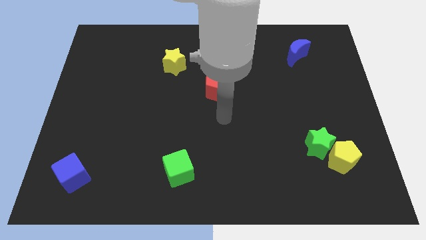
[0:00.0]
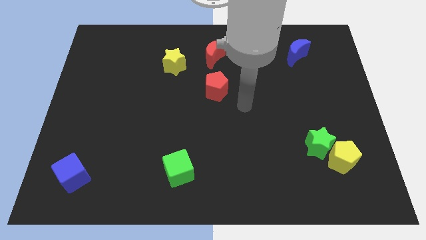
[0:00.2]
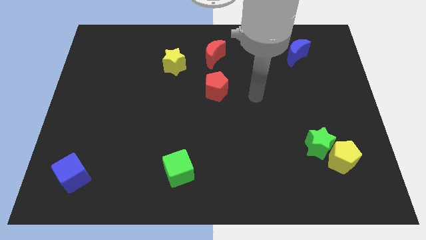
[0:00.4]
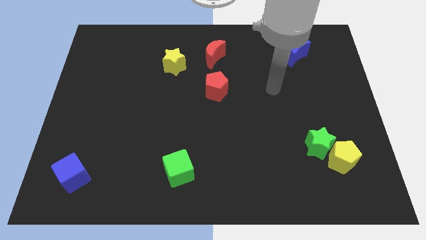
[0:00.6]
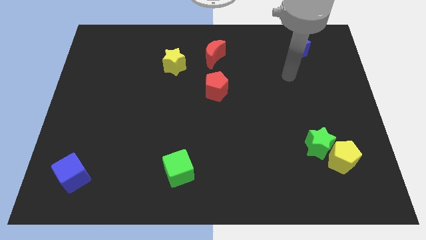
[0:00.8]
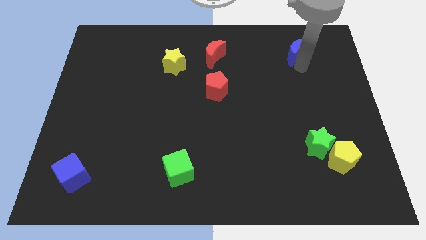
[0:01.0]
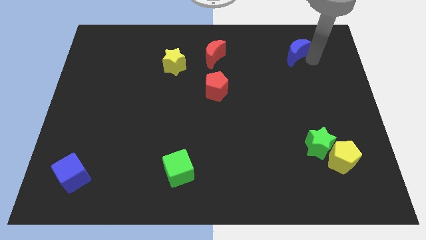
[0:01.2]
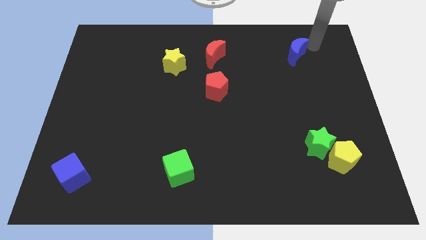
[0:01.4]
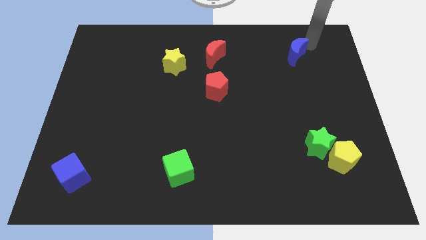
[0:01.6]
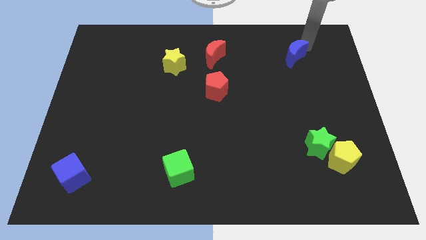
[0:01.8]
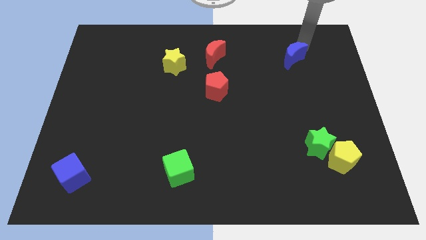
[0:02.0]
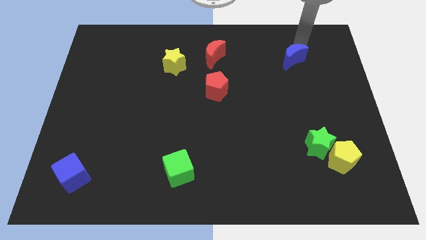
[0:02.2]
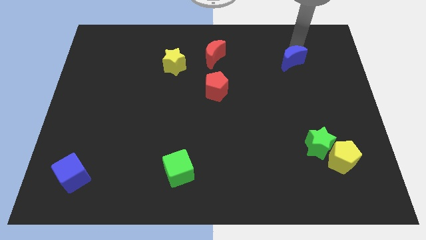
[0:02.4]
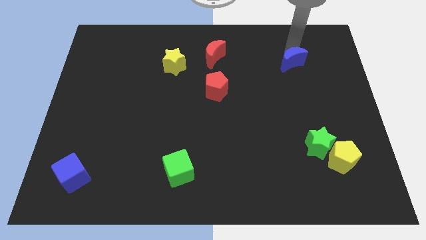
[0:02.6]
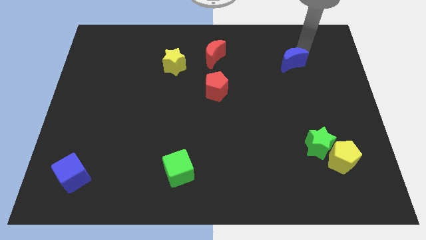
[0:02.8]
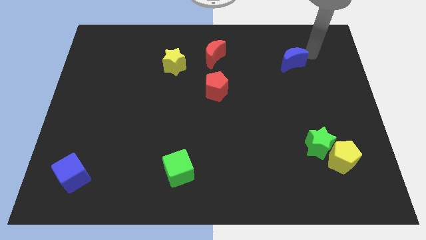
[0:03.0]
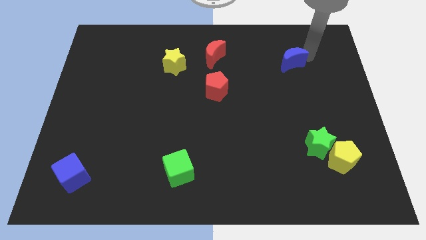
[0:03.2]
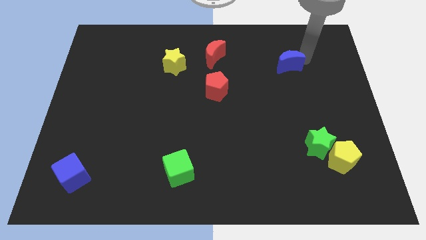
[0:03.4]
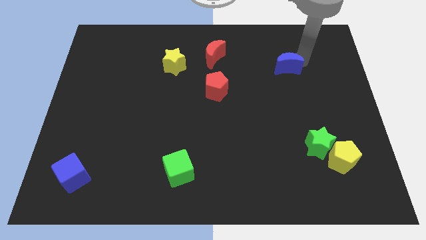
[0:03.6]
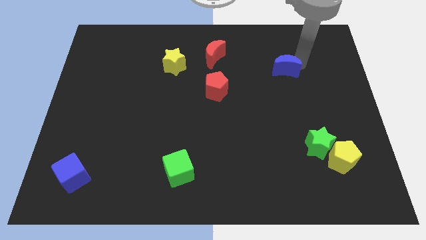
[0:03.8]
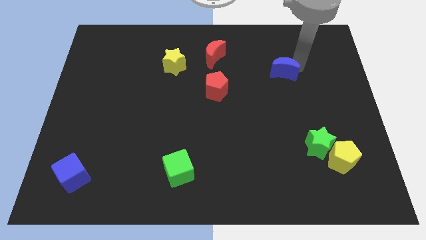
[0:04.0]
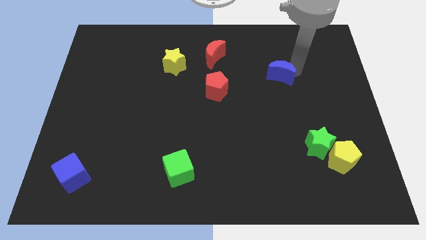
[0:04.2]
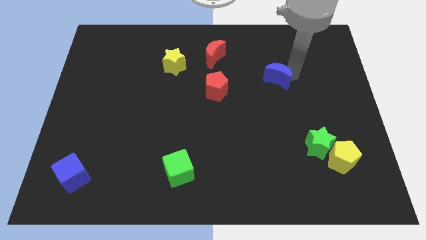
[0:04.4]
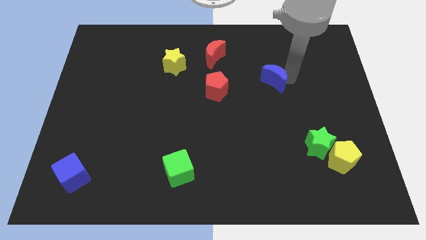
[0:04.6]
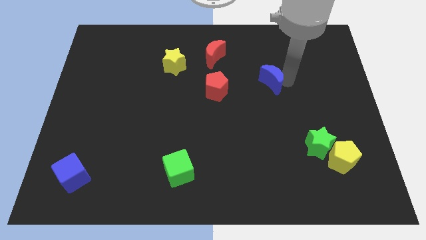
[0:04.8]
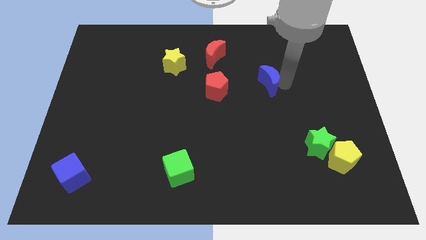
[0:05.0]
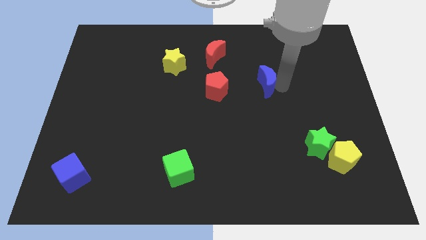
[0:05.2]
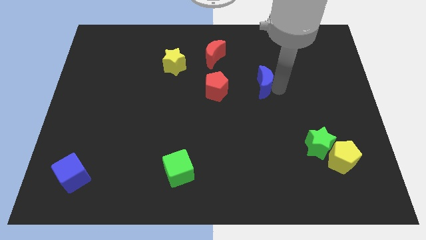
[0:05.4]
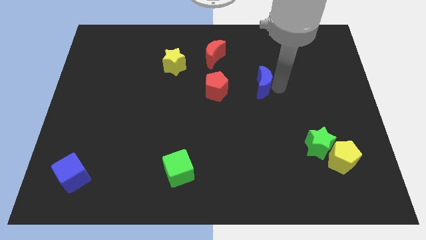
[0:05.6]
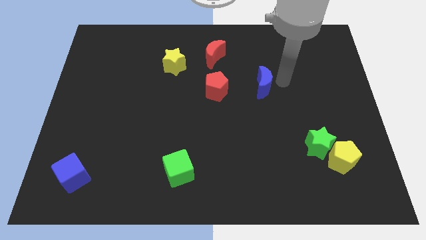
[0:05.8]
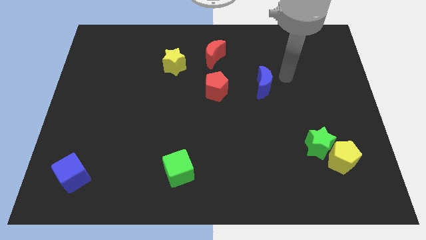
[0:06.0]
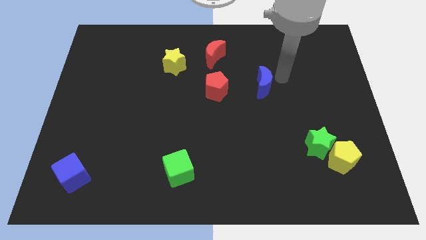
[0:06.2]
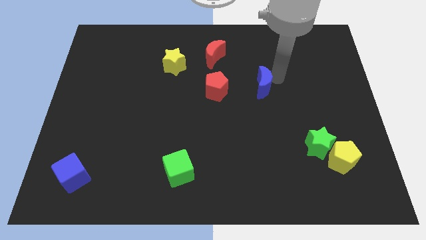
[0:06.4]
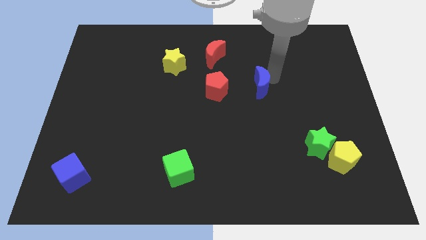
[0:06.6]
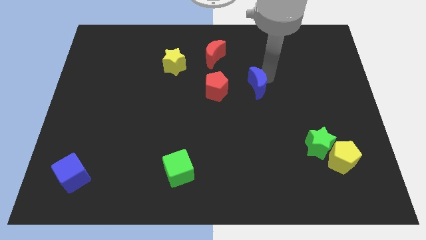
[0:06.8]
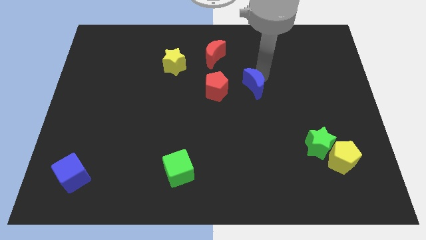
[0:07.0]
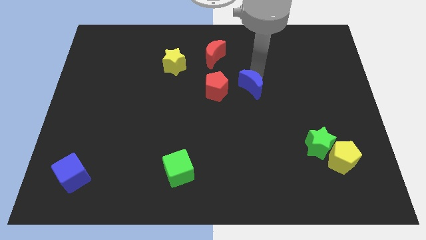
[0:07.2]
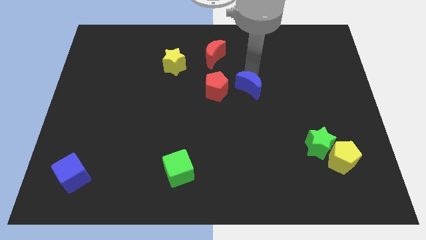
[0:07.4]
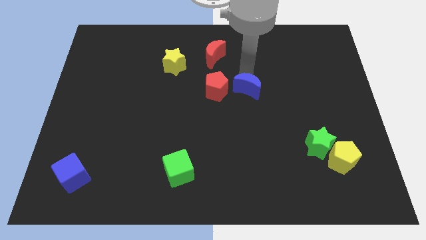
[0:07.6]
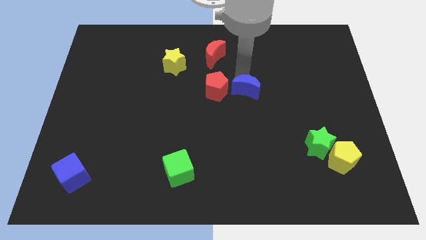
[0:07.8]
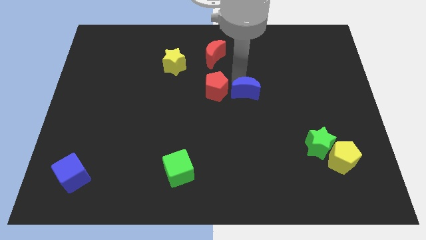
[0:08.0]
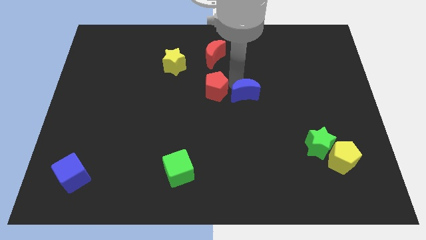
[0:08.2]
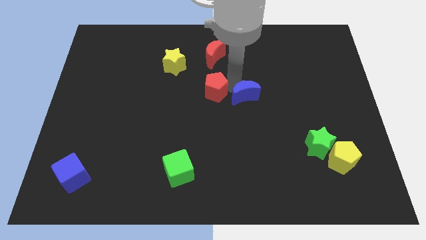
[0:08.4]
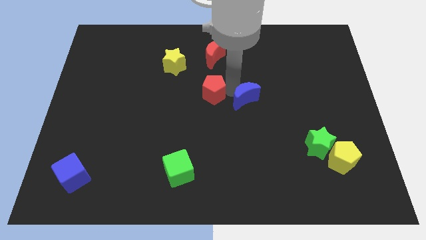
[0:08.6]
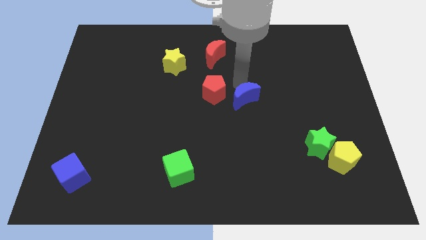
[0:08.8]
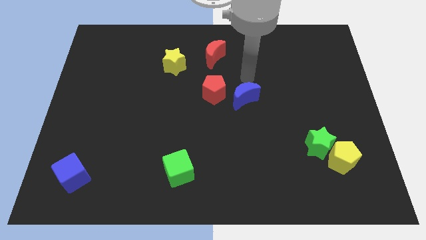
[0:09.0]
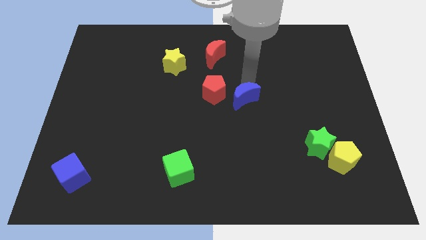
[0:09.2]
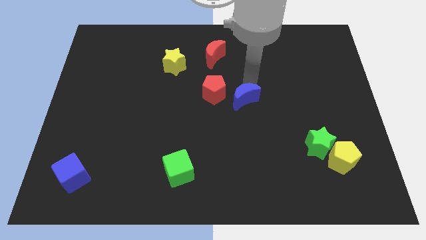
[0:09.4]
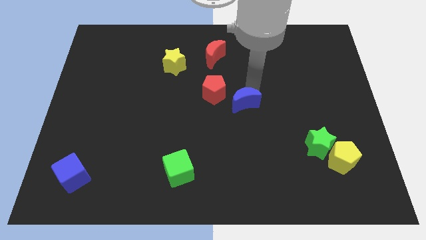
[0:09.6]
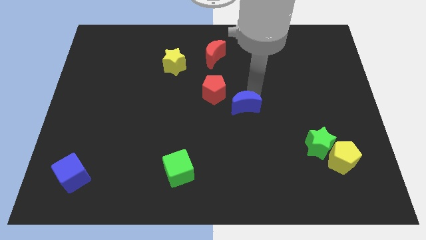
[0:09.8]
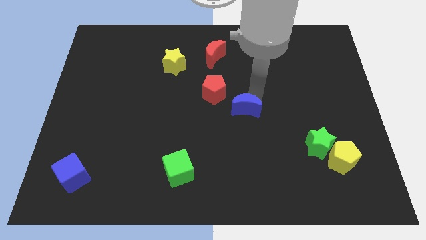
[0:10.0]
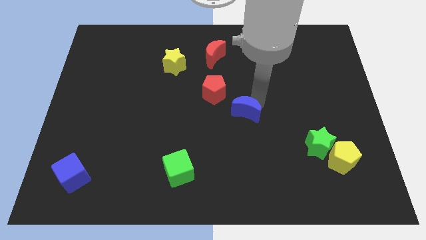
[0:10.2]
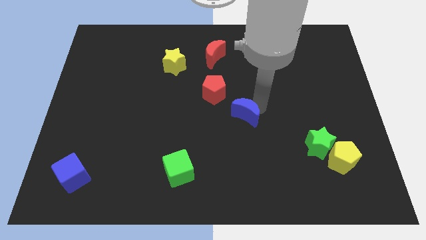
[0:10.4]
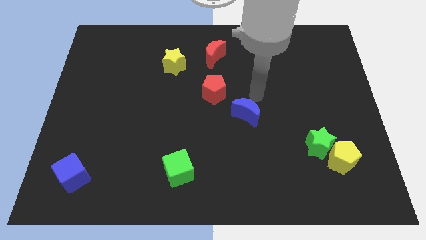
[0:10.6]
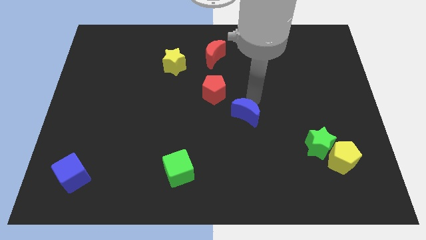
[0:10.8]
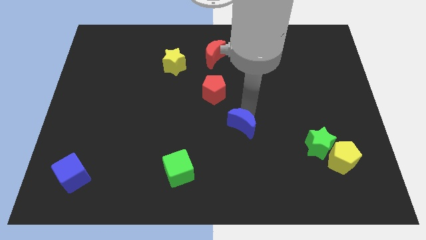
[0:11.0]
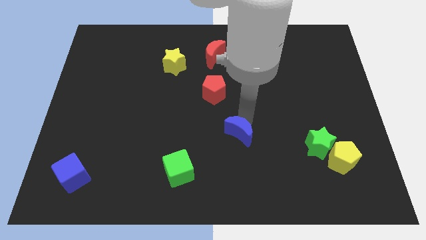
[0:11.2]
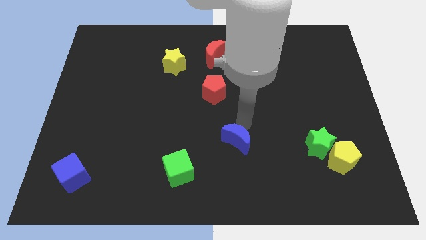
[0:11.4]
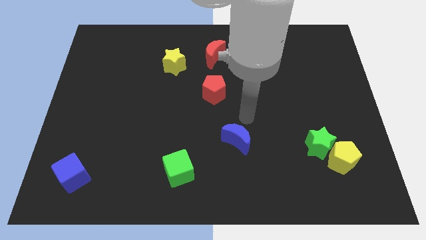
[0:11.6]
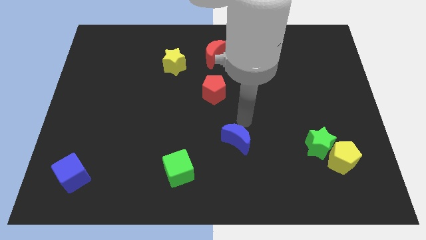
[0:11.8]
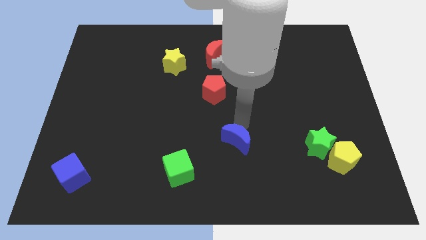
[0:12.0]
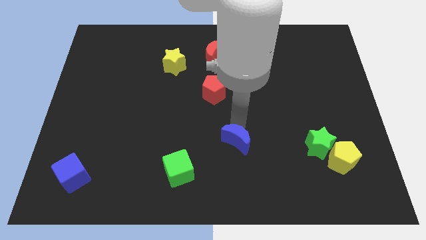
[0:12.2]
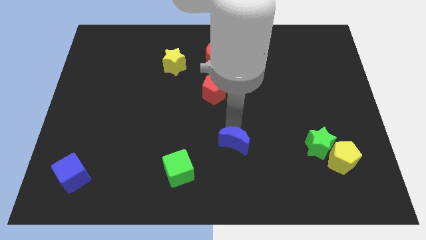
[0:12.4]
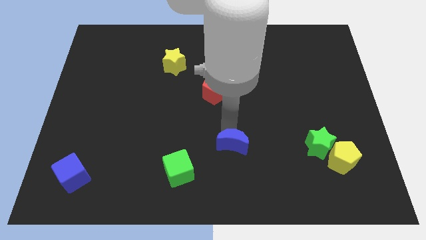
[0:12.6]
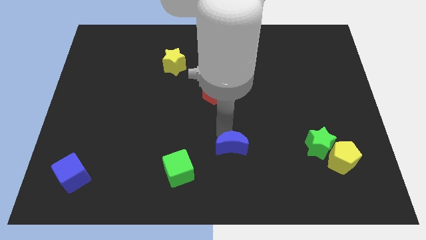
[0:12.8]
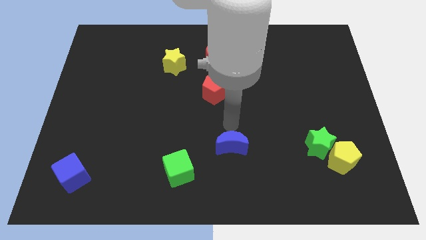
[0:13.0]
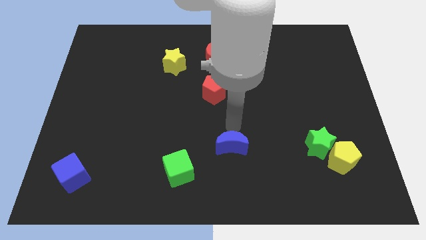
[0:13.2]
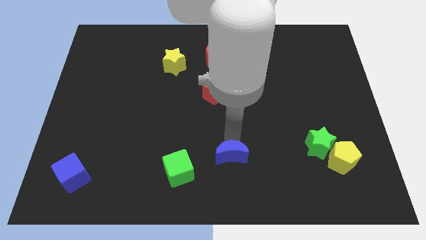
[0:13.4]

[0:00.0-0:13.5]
move the blue moon to the right side of the green cube

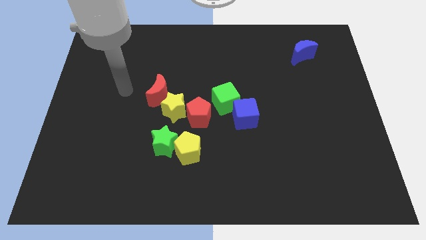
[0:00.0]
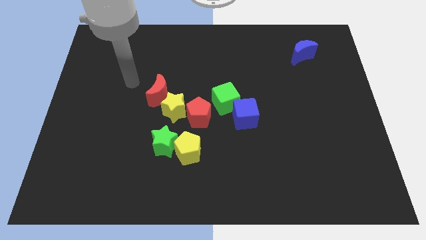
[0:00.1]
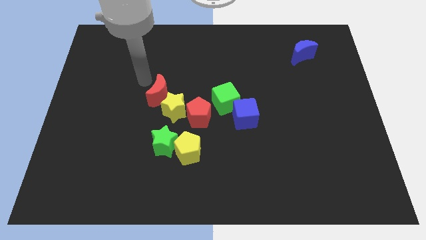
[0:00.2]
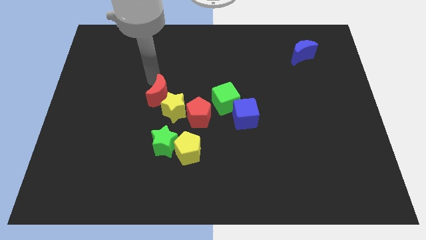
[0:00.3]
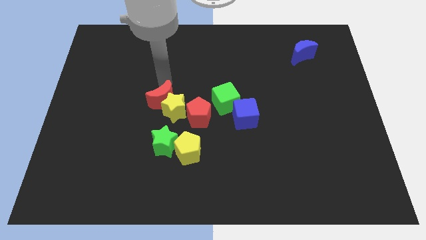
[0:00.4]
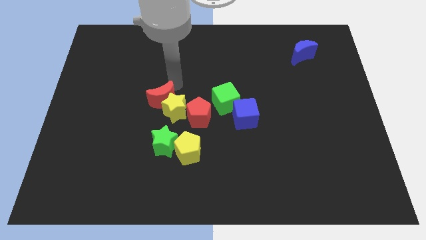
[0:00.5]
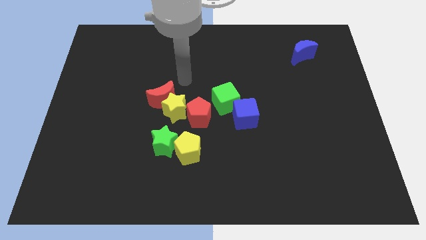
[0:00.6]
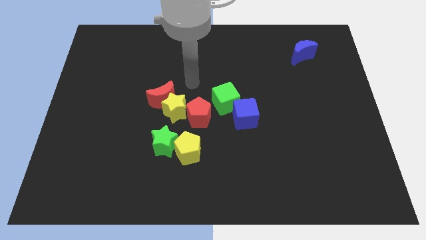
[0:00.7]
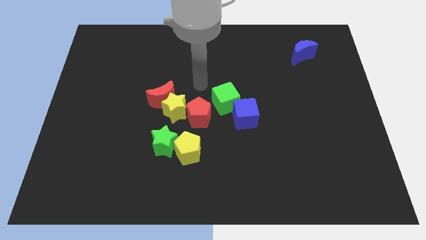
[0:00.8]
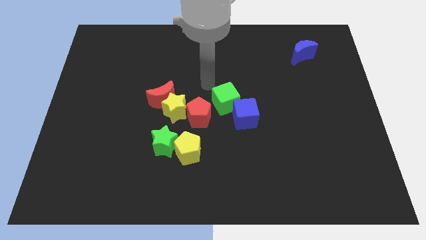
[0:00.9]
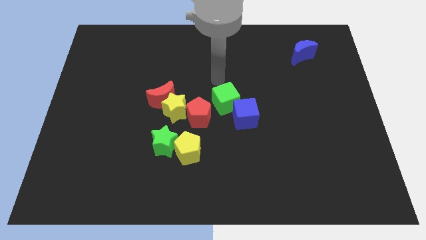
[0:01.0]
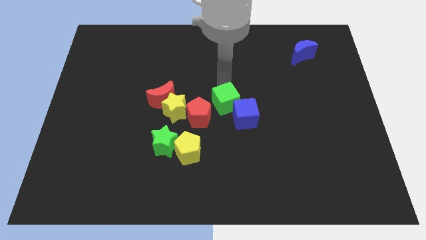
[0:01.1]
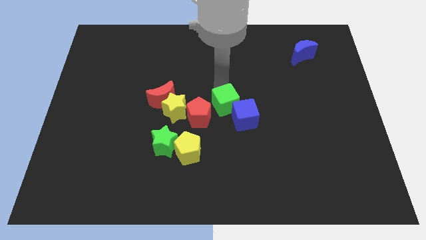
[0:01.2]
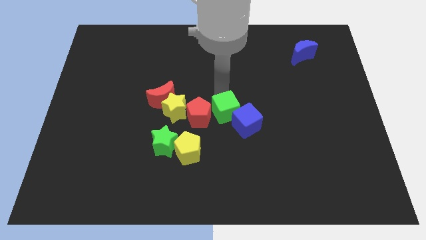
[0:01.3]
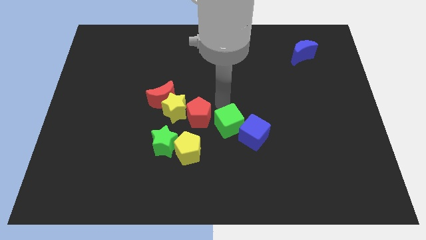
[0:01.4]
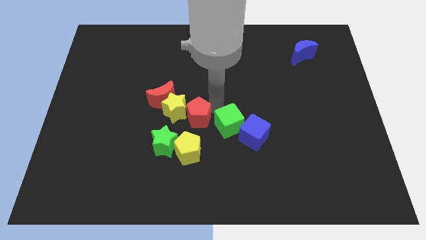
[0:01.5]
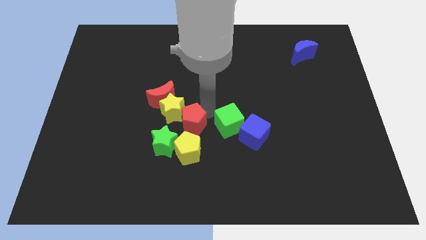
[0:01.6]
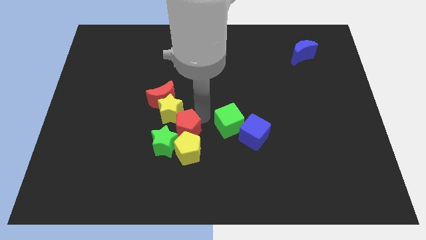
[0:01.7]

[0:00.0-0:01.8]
slide the red pentagon diagonally up and to the left of the yellow pentagon
